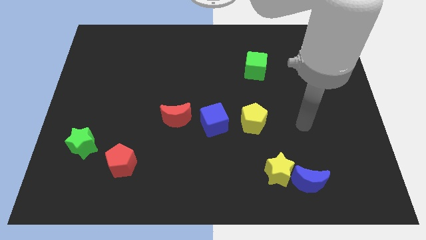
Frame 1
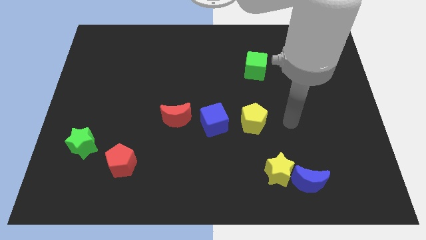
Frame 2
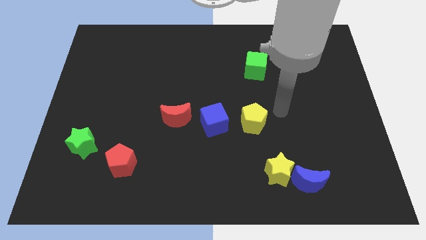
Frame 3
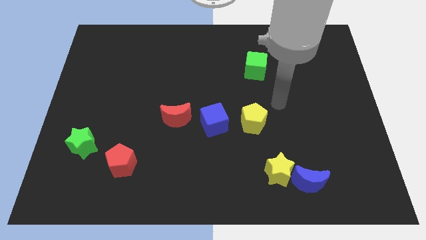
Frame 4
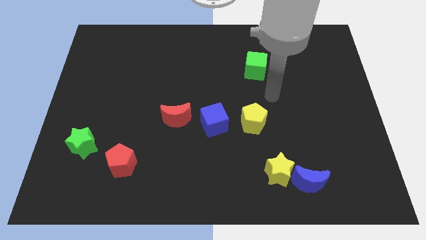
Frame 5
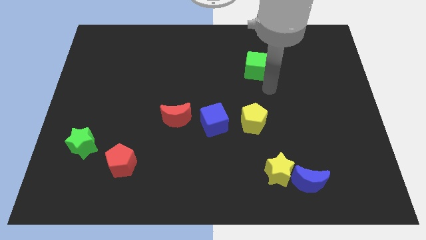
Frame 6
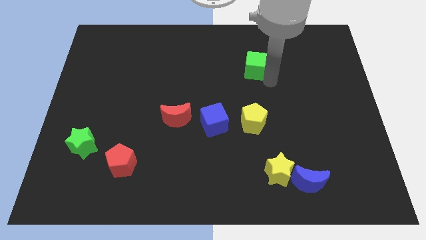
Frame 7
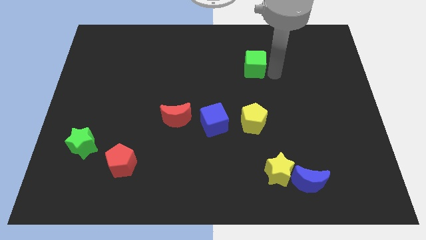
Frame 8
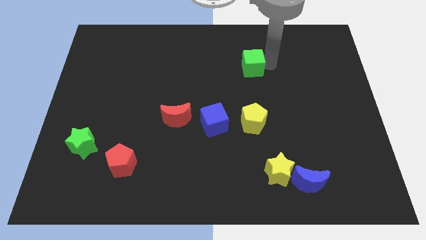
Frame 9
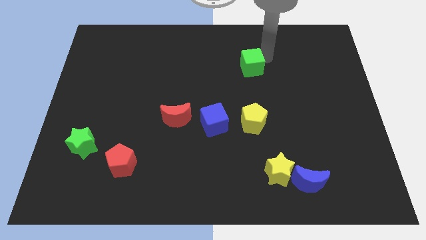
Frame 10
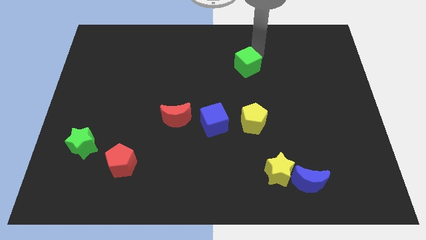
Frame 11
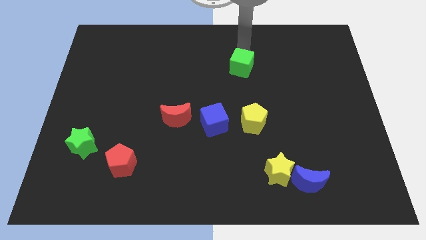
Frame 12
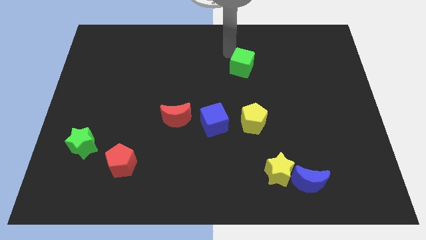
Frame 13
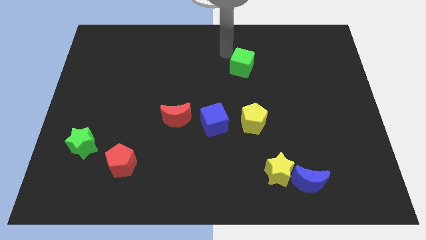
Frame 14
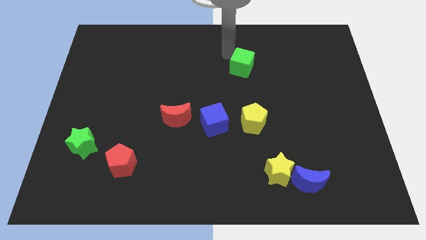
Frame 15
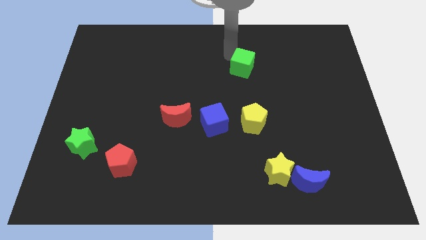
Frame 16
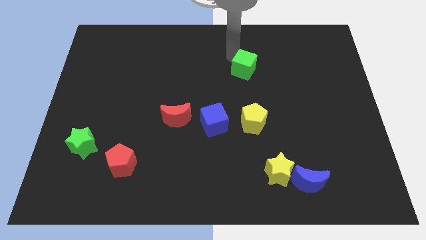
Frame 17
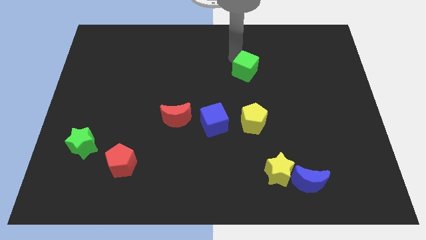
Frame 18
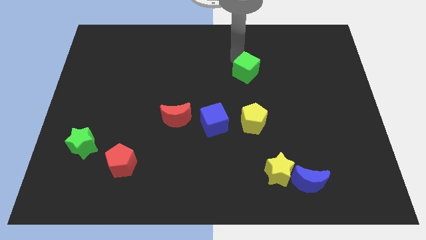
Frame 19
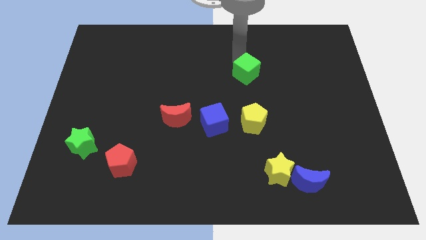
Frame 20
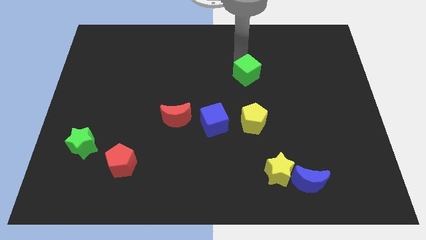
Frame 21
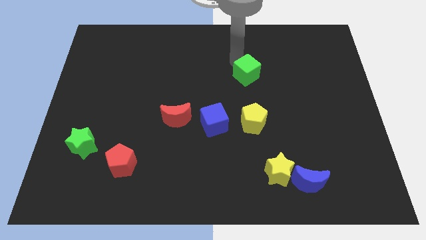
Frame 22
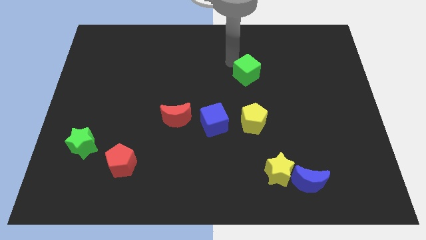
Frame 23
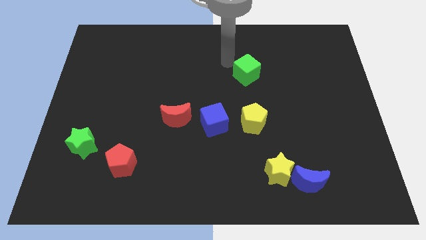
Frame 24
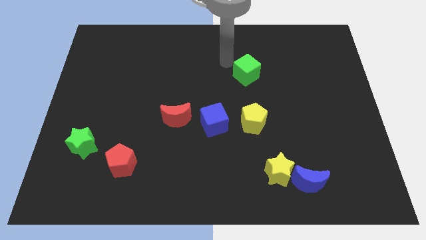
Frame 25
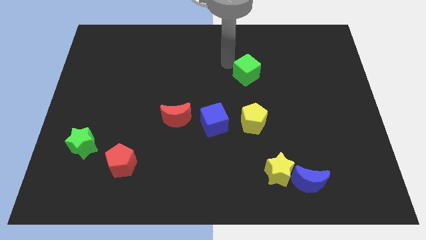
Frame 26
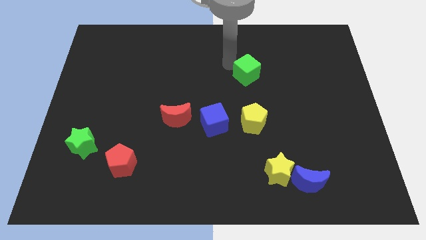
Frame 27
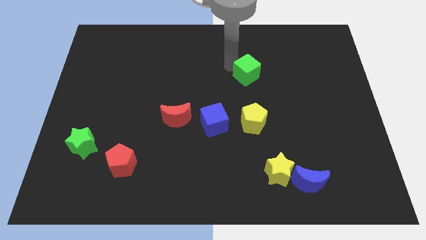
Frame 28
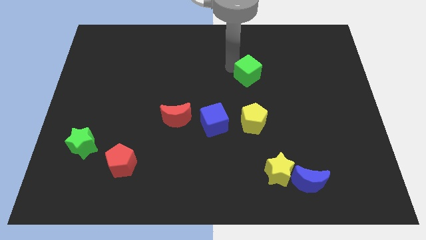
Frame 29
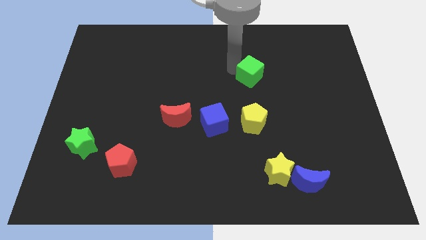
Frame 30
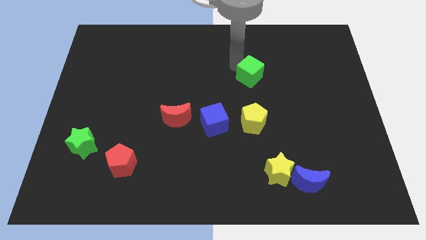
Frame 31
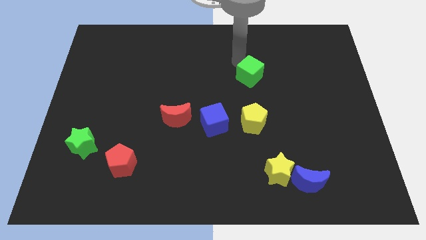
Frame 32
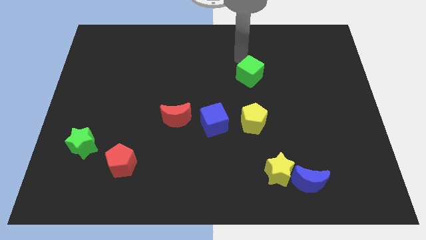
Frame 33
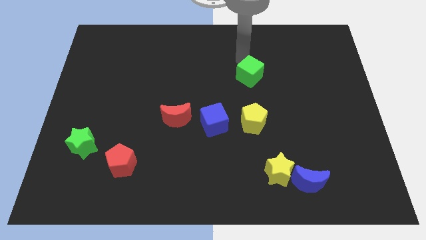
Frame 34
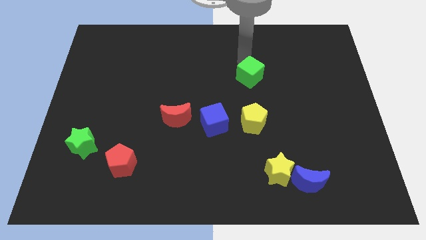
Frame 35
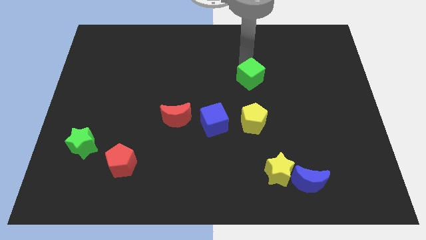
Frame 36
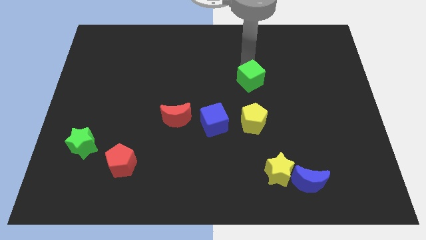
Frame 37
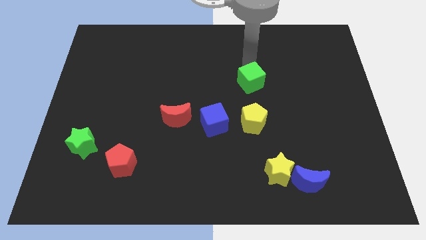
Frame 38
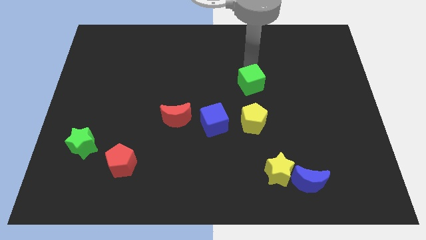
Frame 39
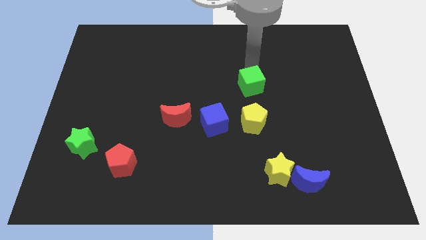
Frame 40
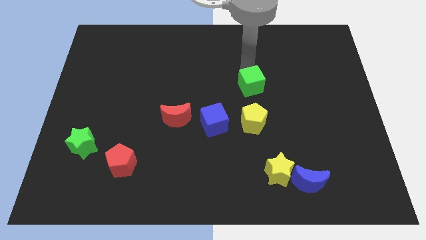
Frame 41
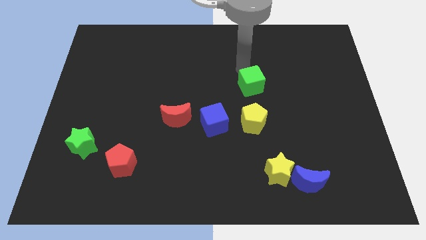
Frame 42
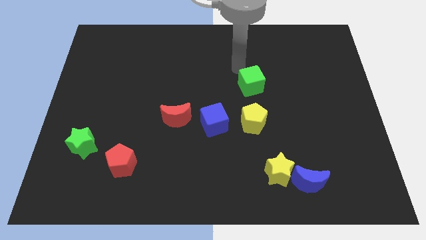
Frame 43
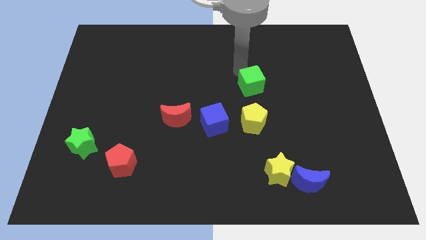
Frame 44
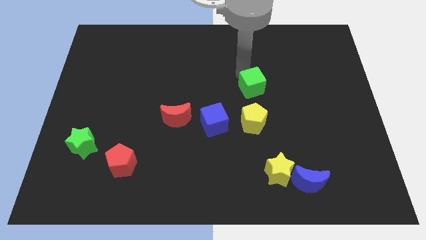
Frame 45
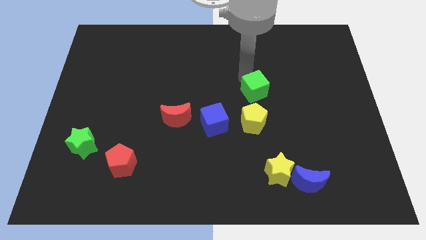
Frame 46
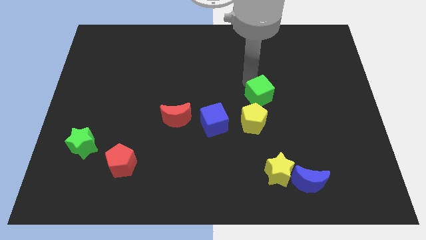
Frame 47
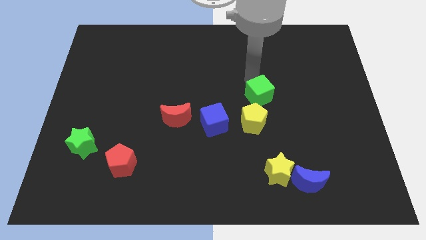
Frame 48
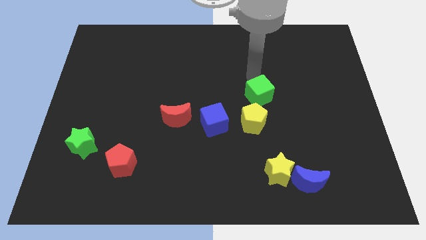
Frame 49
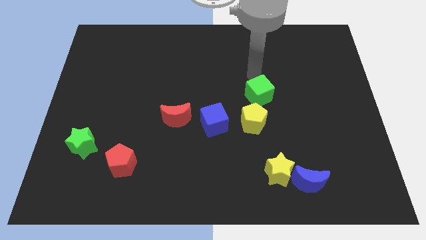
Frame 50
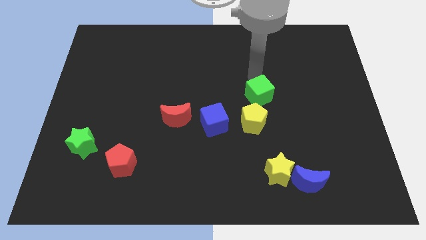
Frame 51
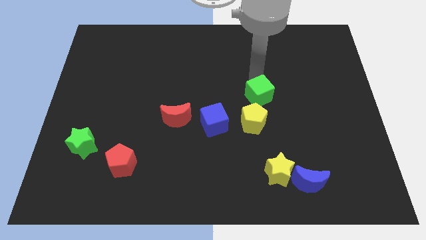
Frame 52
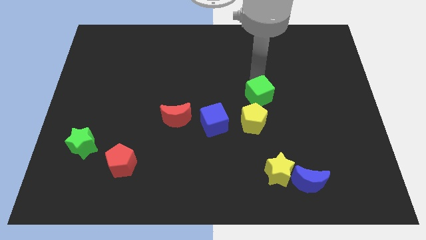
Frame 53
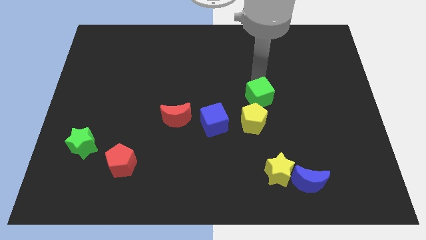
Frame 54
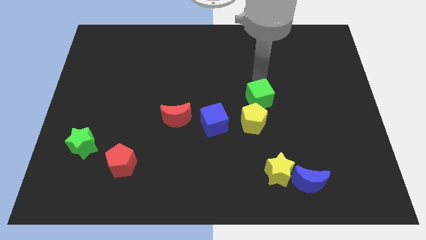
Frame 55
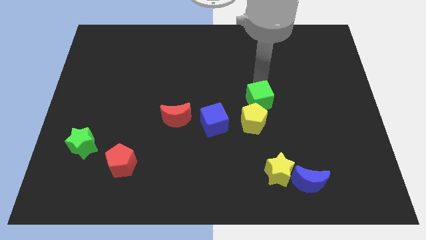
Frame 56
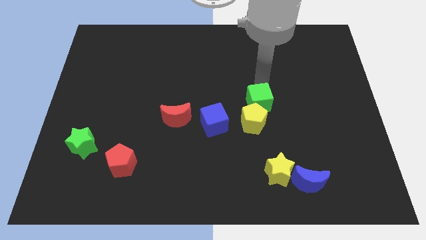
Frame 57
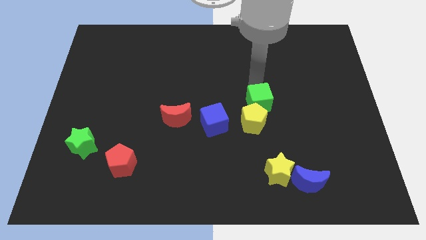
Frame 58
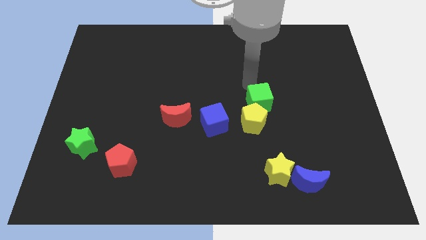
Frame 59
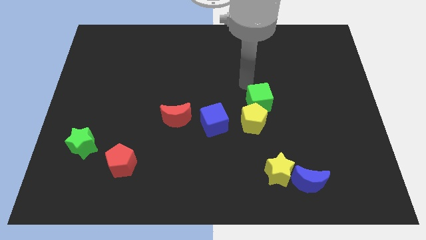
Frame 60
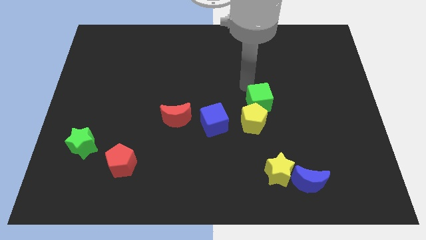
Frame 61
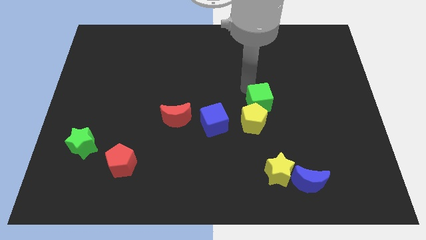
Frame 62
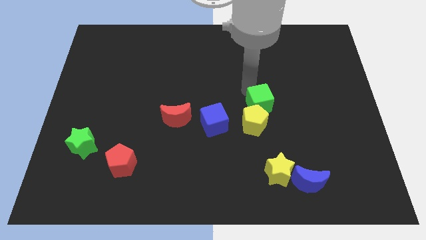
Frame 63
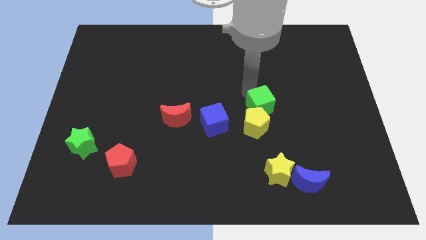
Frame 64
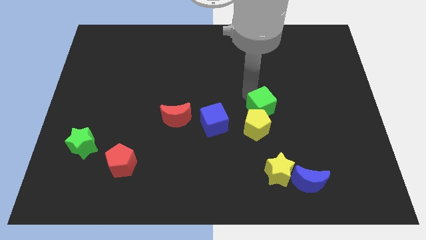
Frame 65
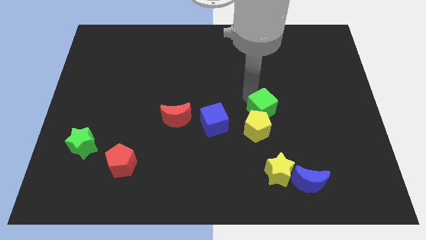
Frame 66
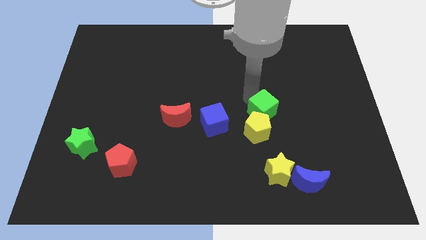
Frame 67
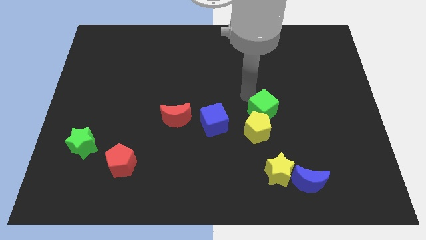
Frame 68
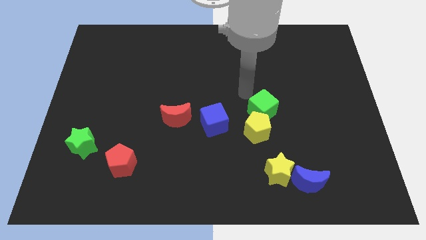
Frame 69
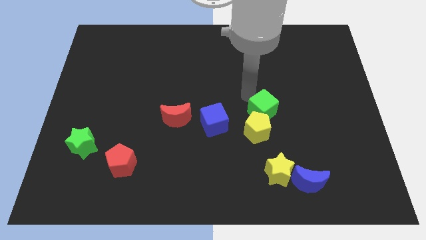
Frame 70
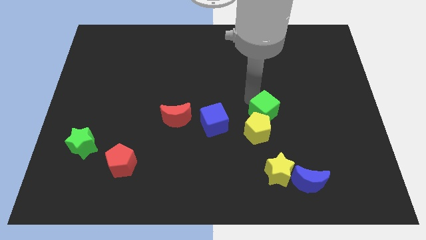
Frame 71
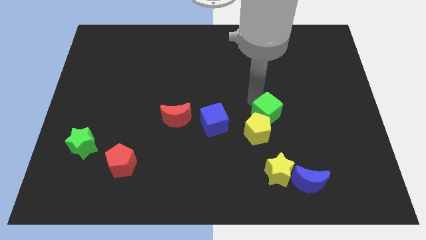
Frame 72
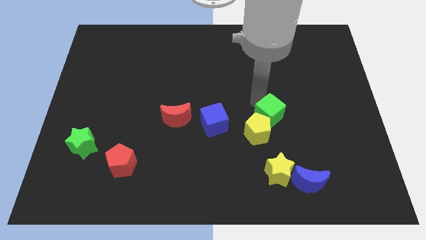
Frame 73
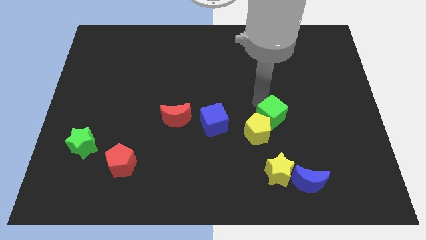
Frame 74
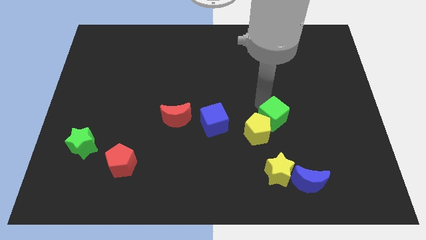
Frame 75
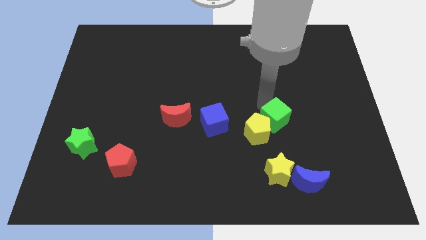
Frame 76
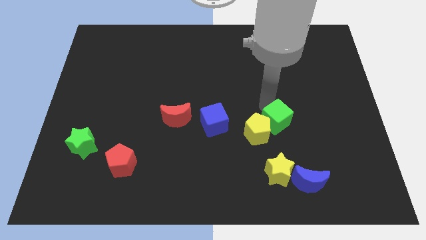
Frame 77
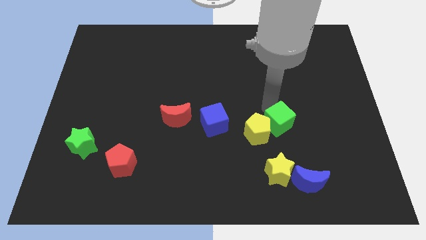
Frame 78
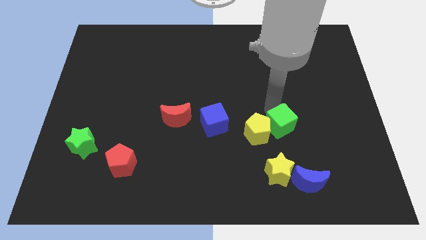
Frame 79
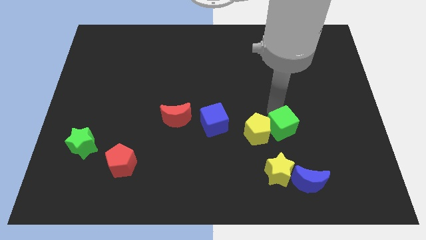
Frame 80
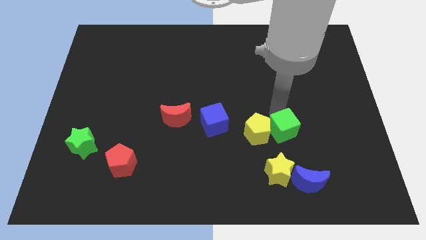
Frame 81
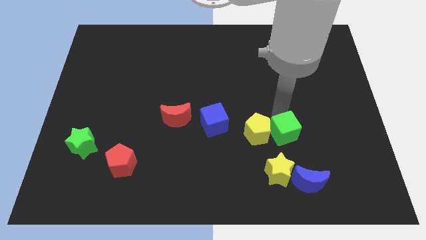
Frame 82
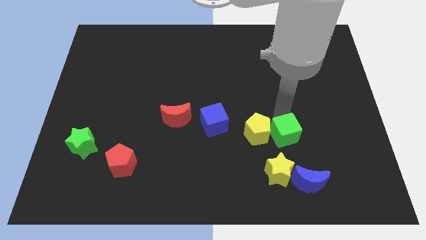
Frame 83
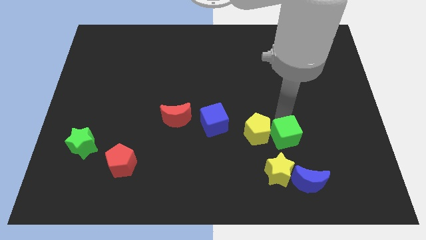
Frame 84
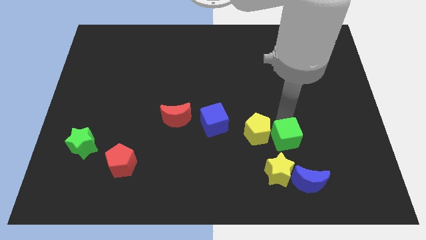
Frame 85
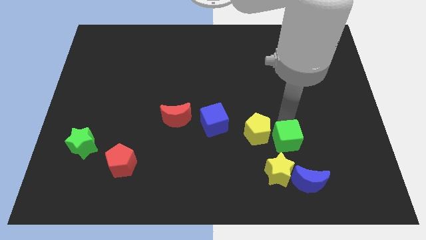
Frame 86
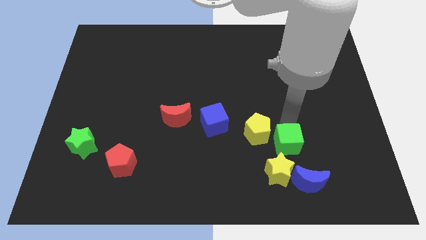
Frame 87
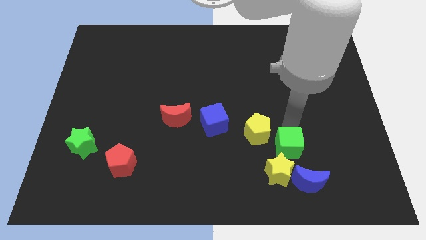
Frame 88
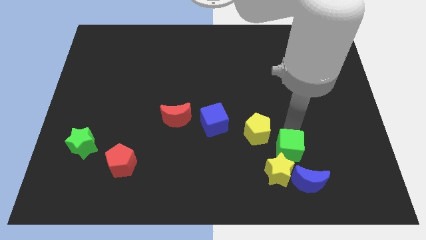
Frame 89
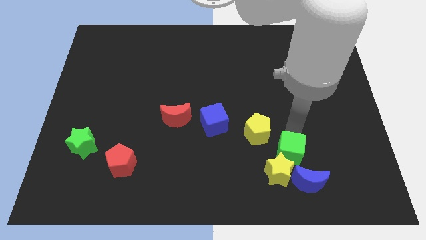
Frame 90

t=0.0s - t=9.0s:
move the green cube close to the yellow star
